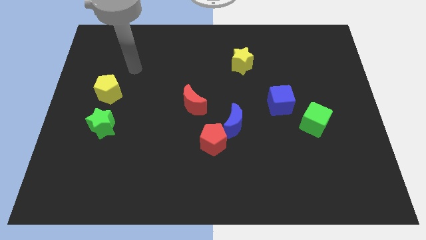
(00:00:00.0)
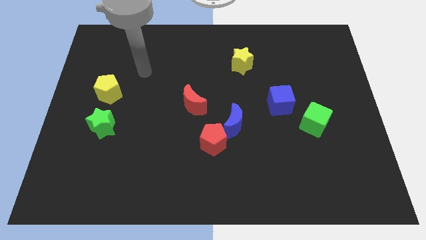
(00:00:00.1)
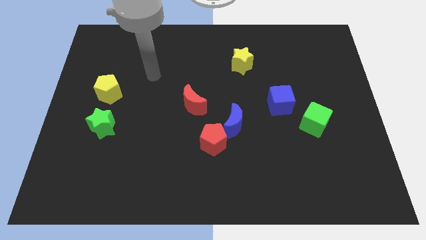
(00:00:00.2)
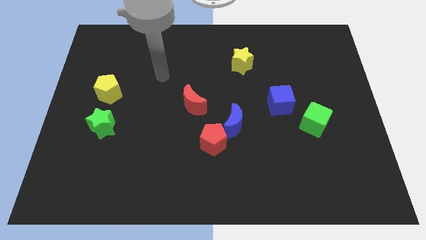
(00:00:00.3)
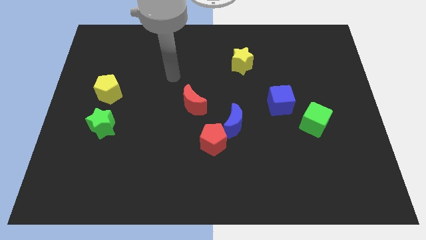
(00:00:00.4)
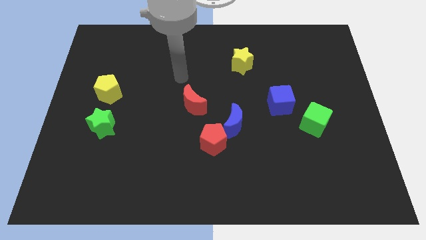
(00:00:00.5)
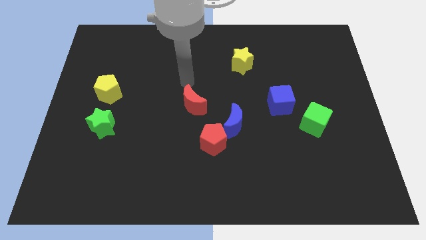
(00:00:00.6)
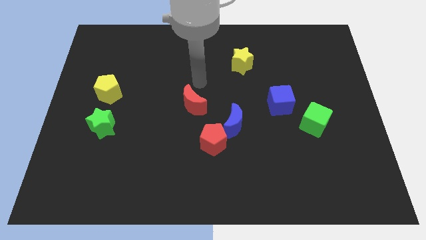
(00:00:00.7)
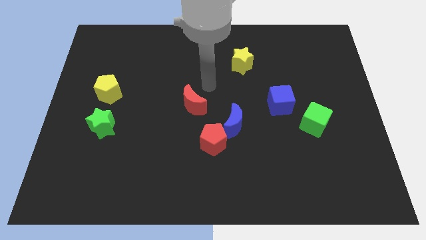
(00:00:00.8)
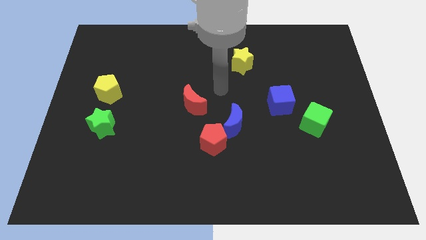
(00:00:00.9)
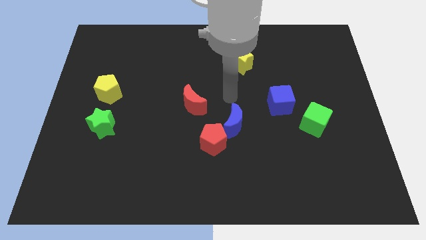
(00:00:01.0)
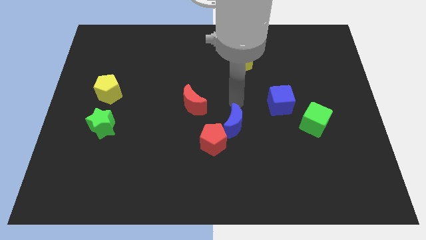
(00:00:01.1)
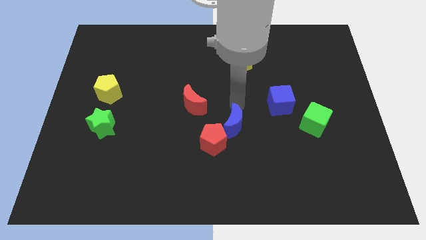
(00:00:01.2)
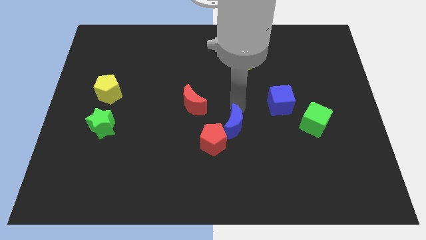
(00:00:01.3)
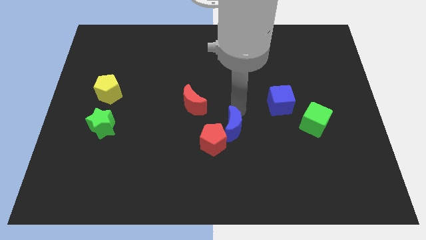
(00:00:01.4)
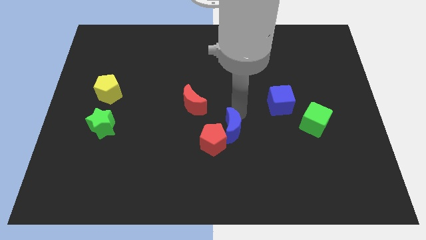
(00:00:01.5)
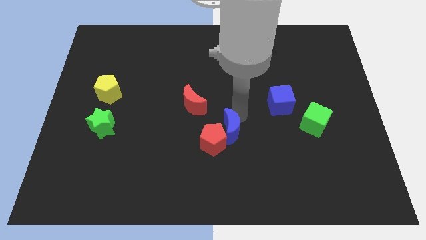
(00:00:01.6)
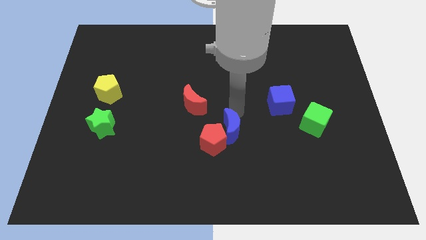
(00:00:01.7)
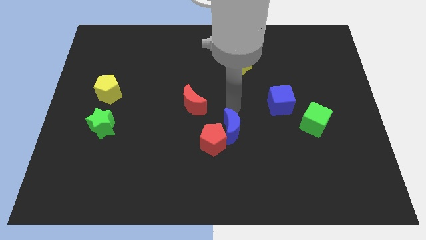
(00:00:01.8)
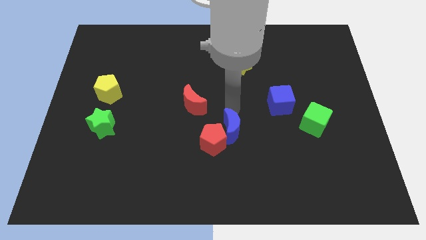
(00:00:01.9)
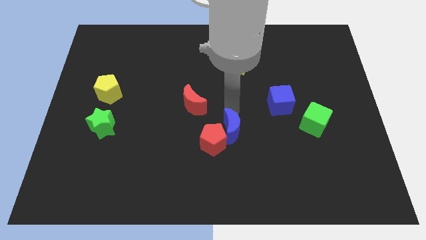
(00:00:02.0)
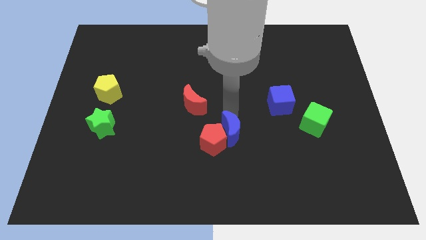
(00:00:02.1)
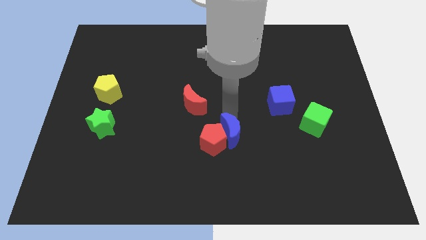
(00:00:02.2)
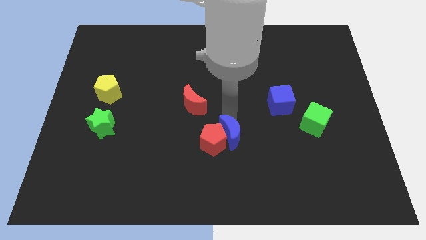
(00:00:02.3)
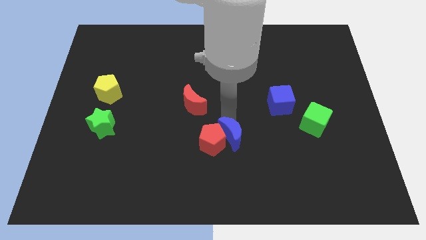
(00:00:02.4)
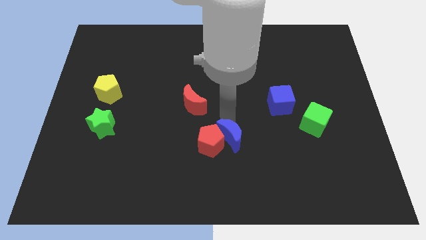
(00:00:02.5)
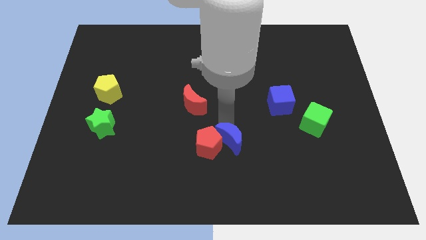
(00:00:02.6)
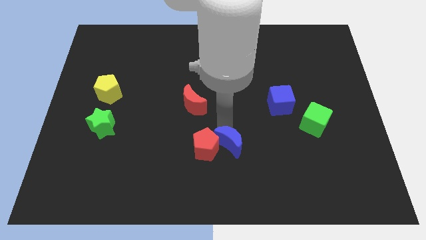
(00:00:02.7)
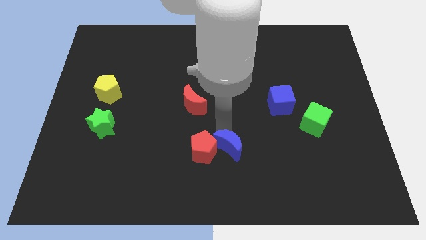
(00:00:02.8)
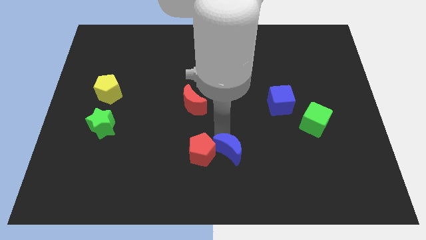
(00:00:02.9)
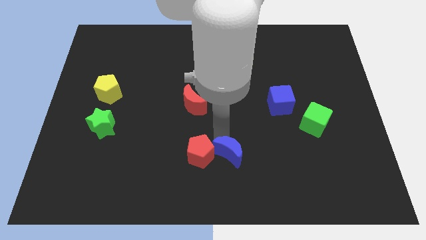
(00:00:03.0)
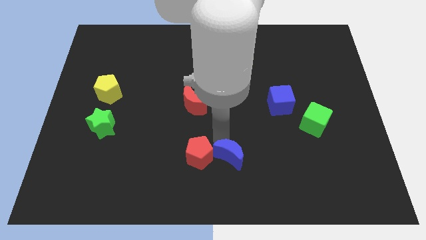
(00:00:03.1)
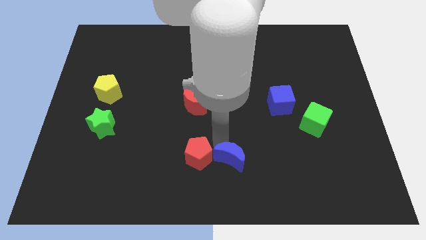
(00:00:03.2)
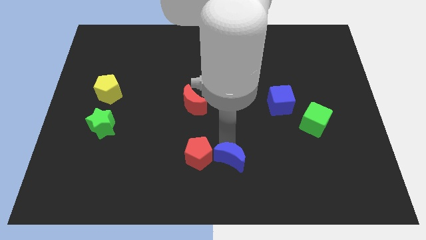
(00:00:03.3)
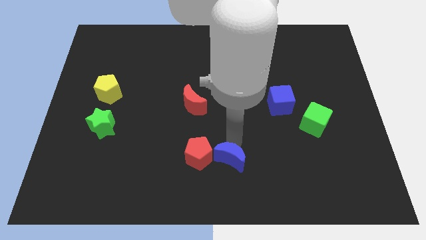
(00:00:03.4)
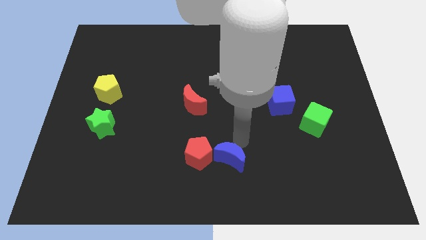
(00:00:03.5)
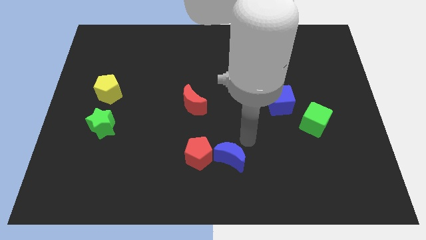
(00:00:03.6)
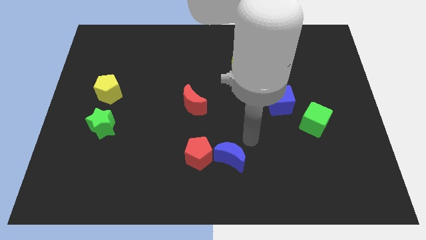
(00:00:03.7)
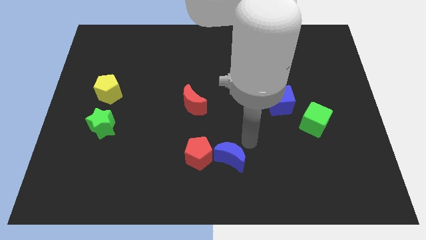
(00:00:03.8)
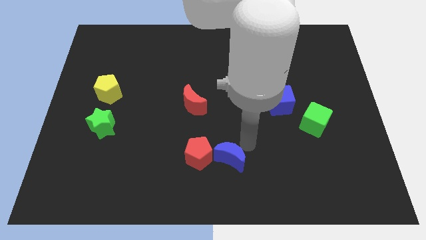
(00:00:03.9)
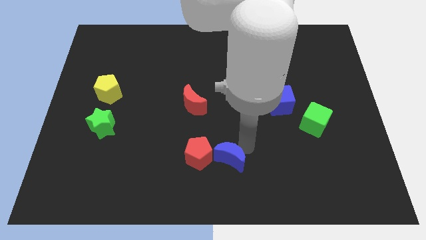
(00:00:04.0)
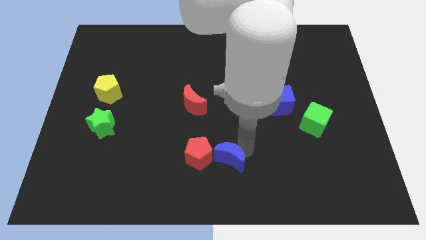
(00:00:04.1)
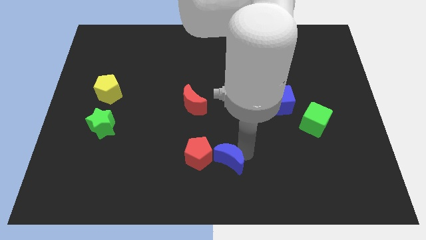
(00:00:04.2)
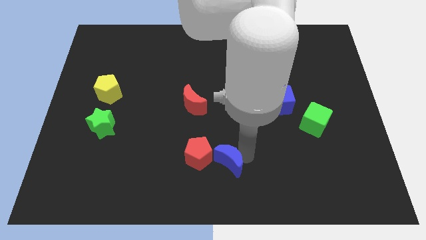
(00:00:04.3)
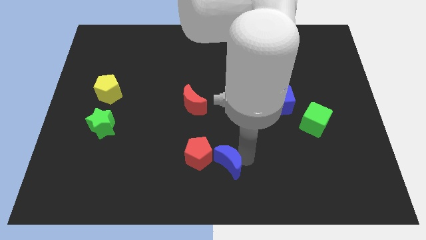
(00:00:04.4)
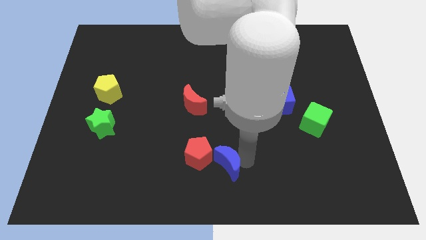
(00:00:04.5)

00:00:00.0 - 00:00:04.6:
slide the blue moon a little bit down and to the left

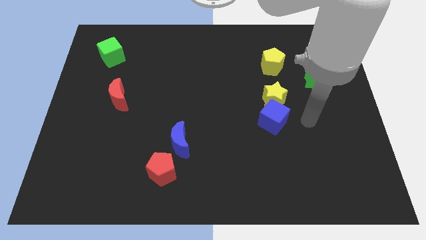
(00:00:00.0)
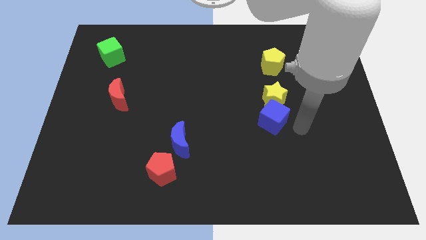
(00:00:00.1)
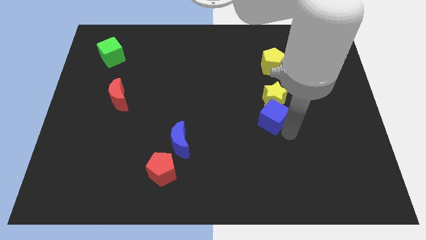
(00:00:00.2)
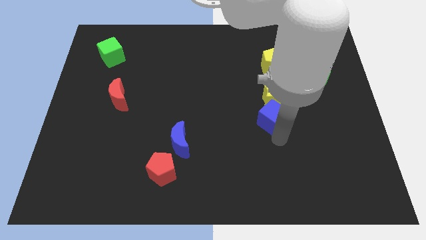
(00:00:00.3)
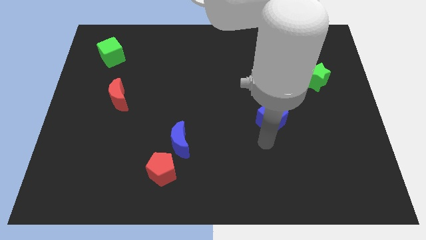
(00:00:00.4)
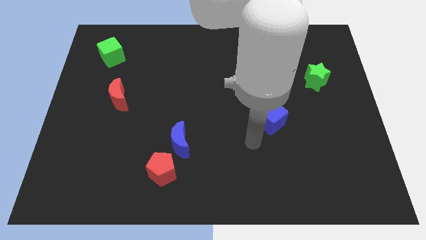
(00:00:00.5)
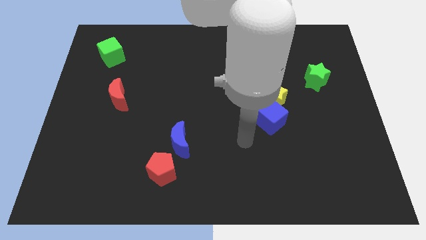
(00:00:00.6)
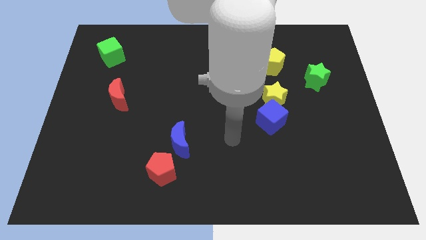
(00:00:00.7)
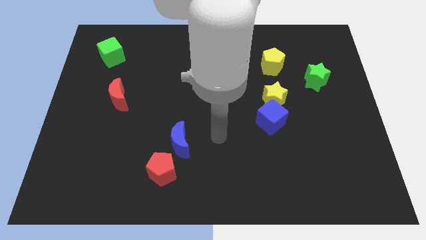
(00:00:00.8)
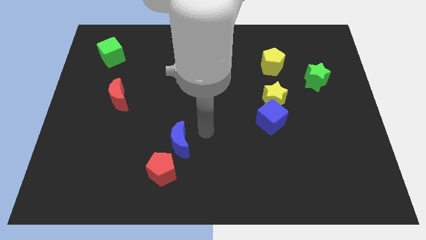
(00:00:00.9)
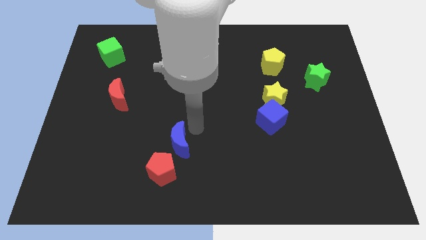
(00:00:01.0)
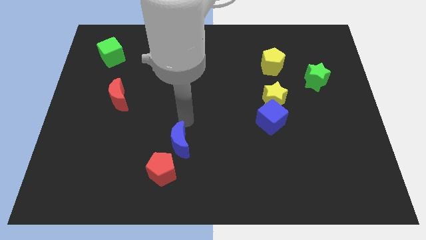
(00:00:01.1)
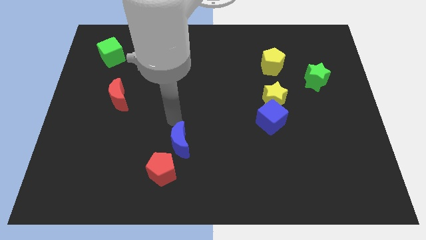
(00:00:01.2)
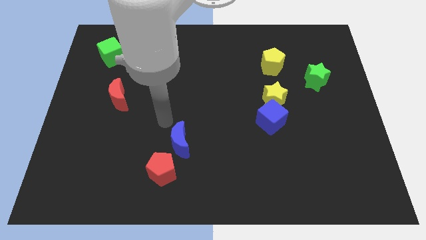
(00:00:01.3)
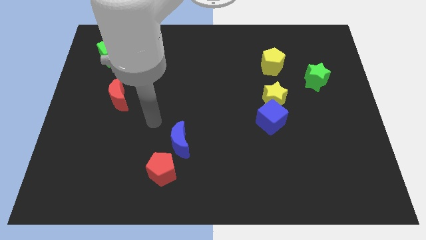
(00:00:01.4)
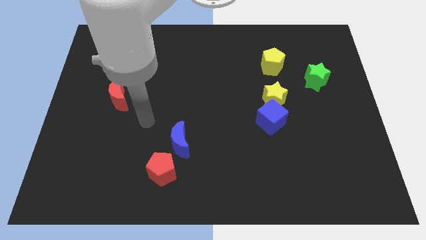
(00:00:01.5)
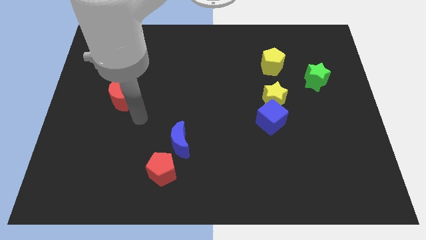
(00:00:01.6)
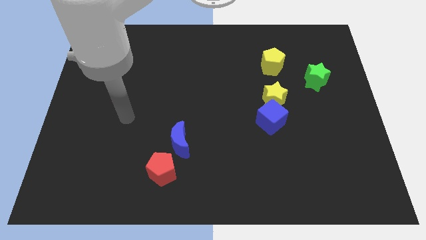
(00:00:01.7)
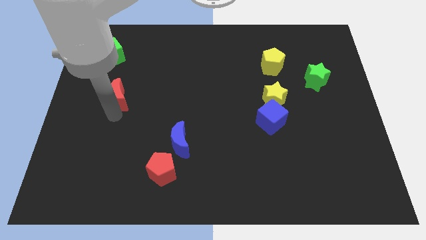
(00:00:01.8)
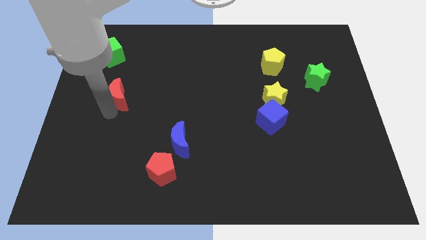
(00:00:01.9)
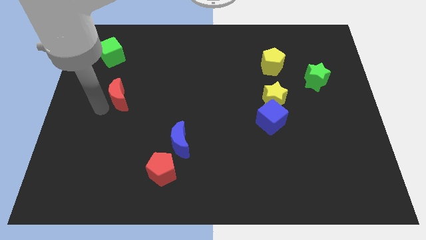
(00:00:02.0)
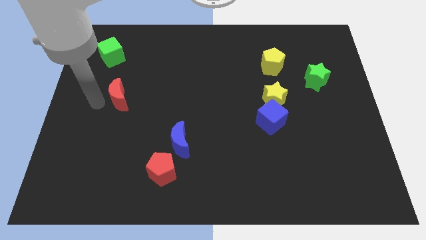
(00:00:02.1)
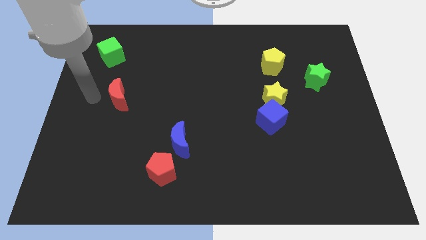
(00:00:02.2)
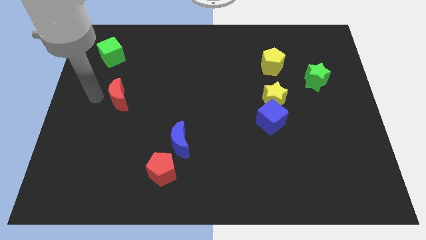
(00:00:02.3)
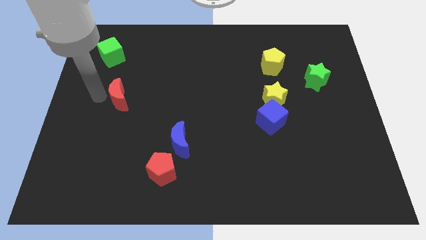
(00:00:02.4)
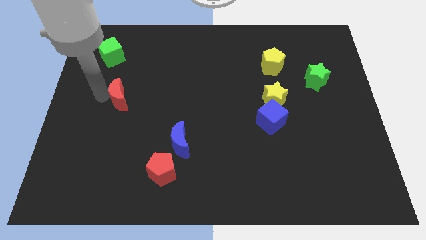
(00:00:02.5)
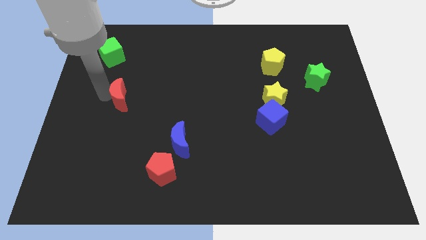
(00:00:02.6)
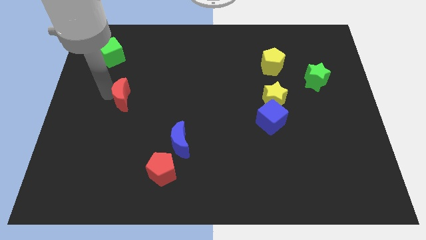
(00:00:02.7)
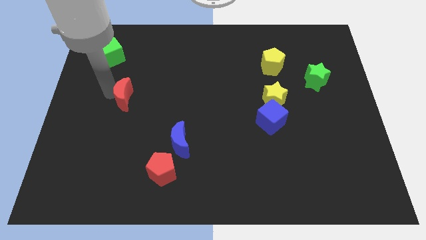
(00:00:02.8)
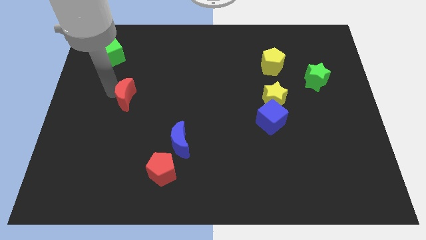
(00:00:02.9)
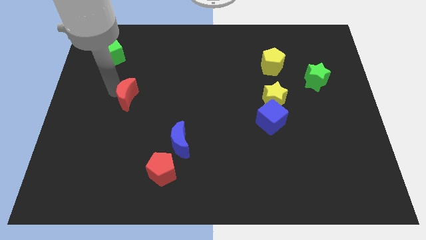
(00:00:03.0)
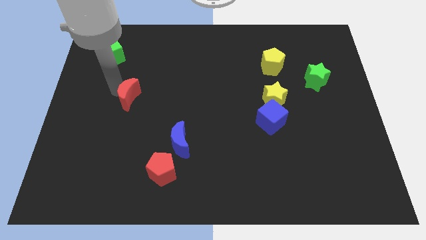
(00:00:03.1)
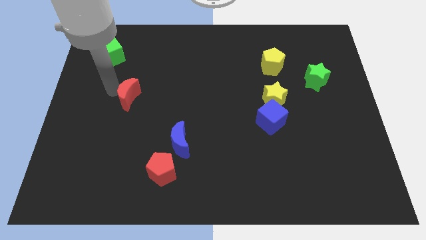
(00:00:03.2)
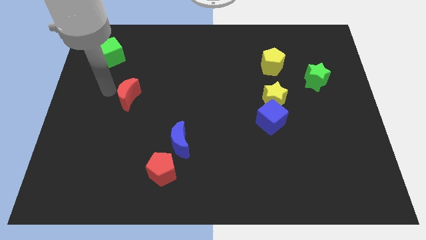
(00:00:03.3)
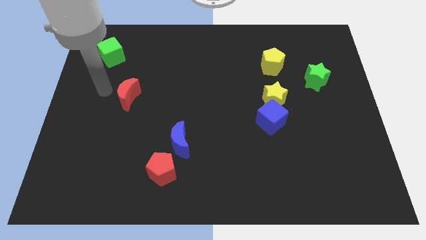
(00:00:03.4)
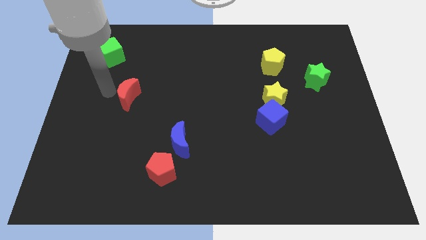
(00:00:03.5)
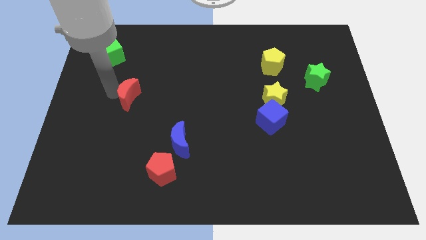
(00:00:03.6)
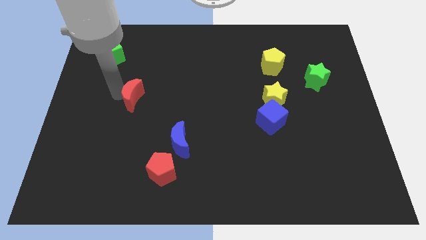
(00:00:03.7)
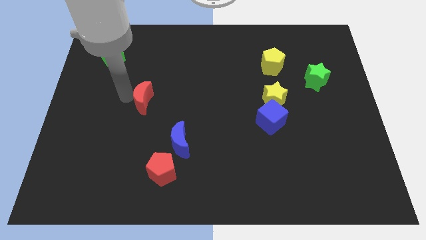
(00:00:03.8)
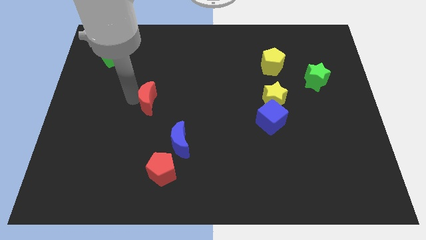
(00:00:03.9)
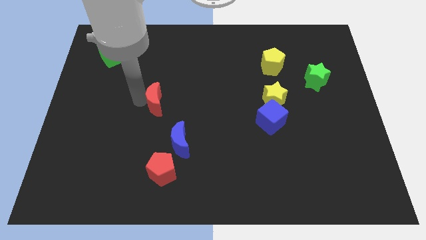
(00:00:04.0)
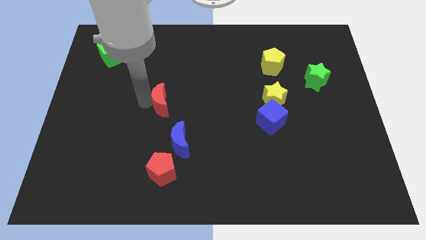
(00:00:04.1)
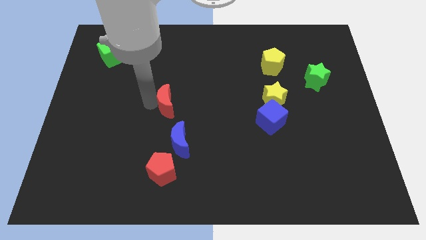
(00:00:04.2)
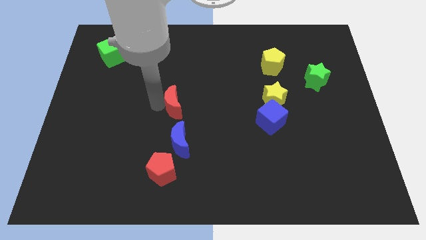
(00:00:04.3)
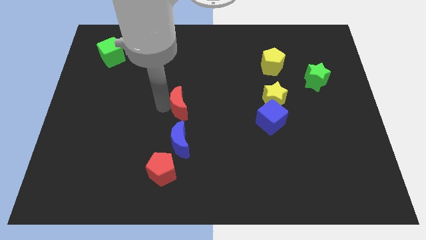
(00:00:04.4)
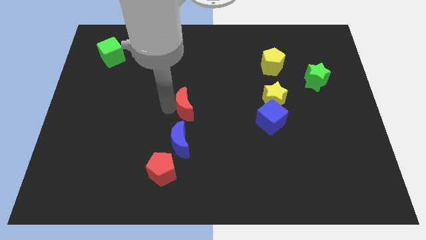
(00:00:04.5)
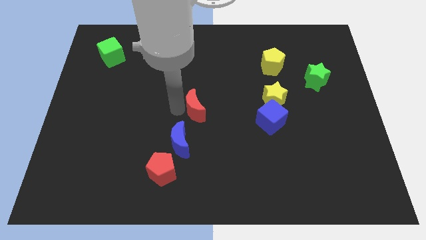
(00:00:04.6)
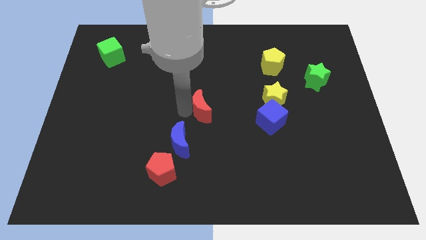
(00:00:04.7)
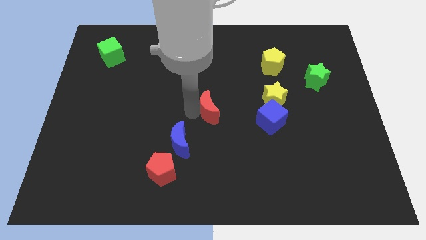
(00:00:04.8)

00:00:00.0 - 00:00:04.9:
move the red moon to the right
